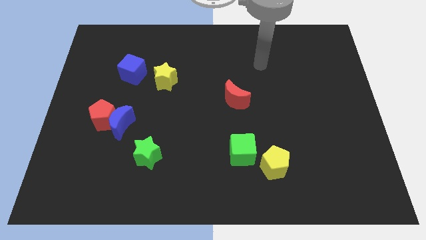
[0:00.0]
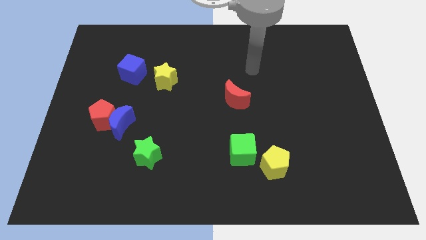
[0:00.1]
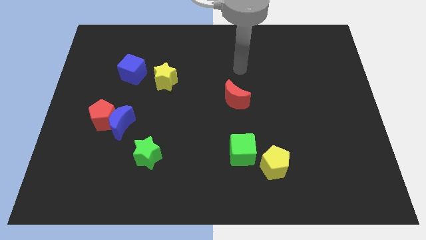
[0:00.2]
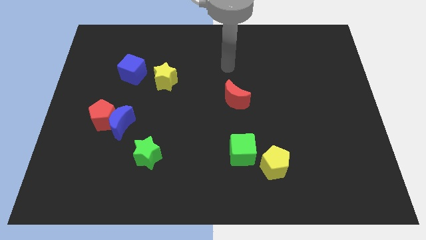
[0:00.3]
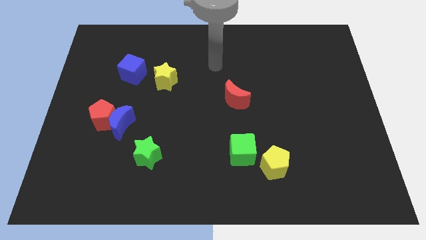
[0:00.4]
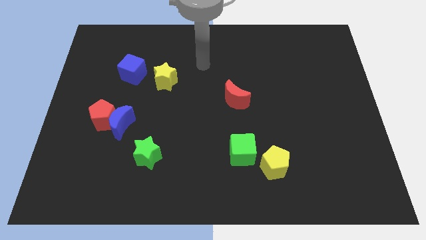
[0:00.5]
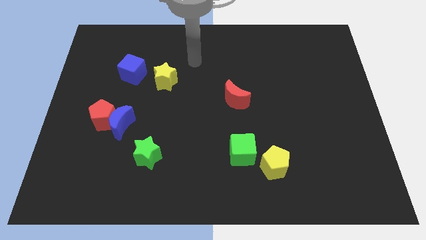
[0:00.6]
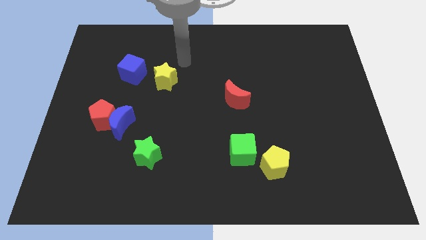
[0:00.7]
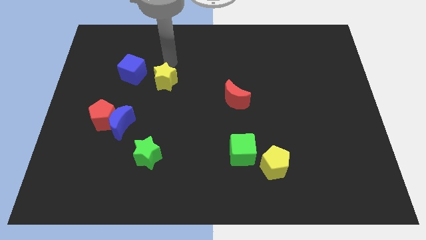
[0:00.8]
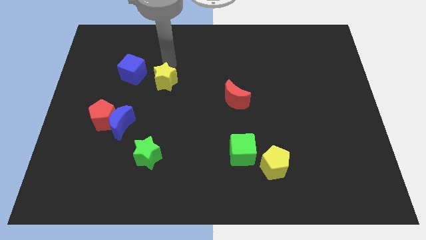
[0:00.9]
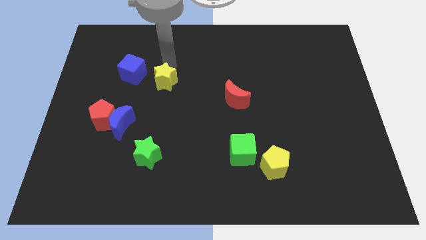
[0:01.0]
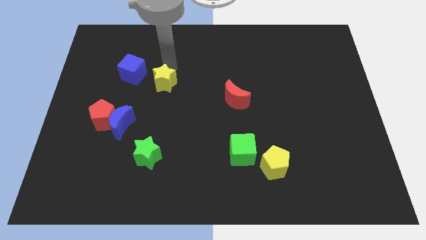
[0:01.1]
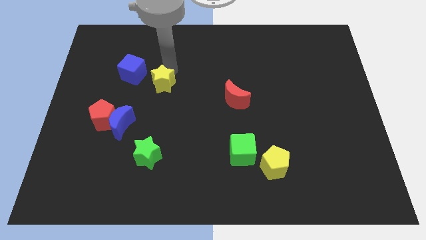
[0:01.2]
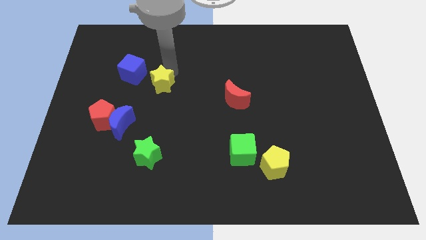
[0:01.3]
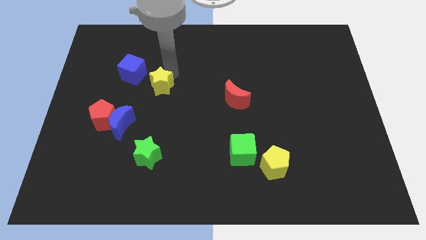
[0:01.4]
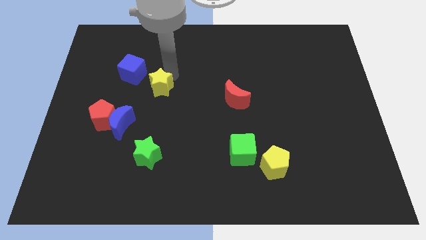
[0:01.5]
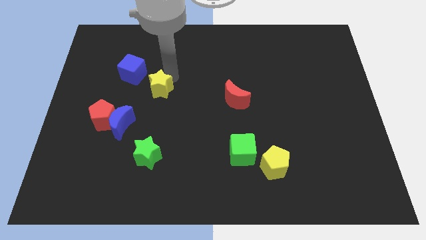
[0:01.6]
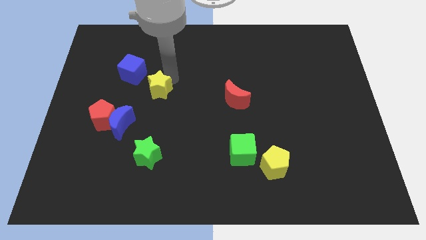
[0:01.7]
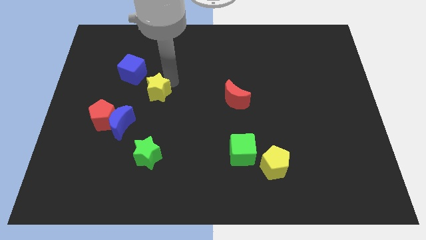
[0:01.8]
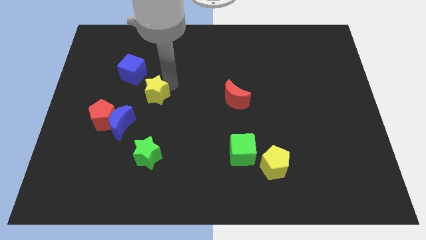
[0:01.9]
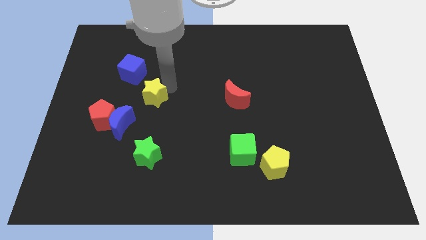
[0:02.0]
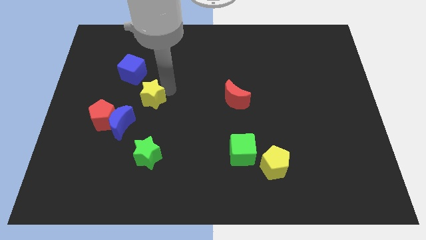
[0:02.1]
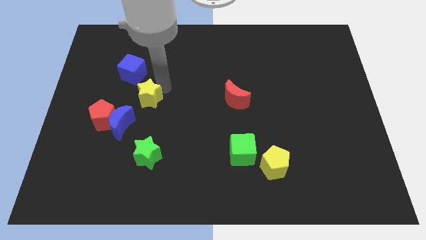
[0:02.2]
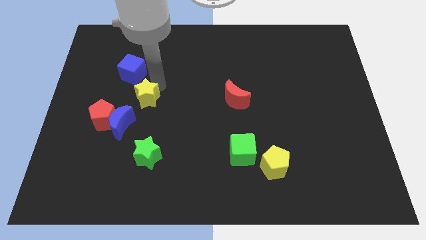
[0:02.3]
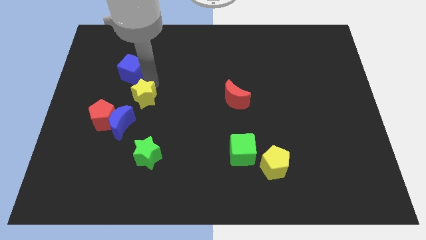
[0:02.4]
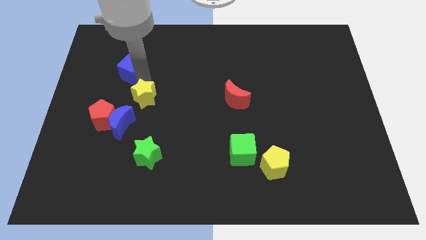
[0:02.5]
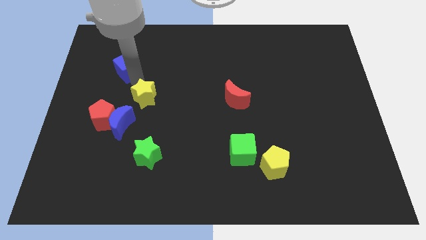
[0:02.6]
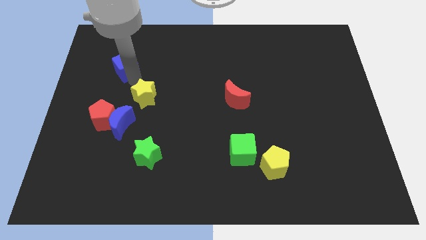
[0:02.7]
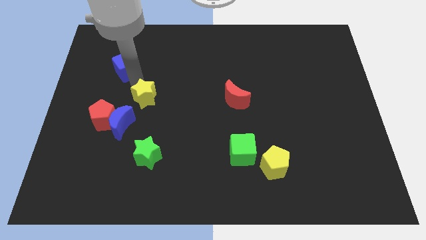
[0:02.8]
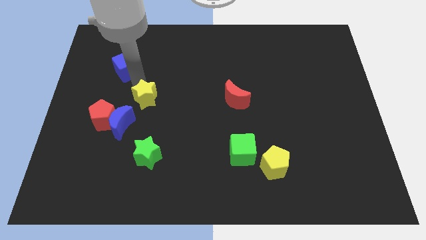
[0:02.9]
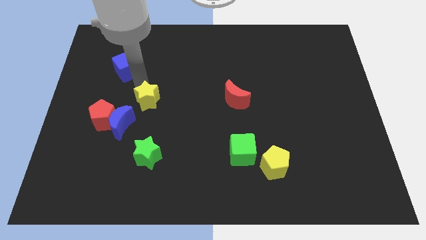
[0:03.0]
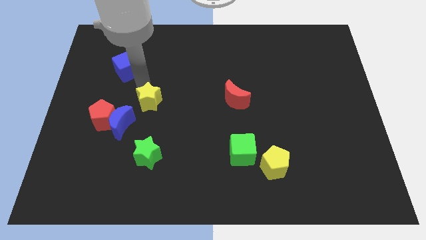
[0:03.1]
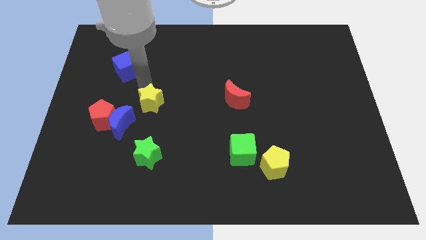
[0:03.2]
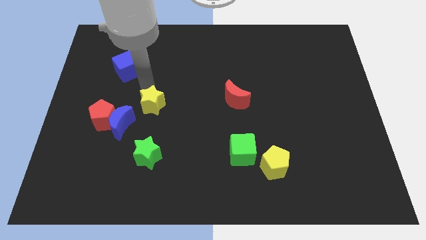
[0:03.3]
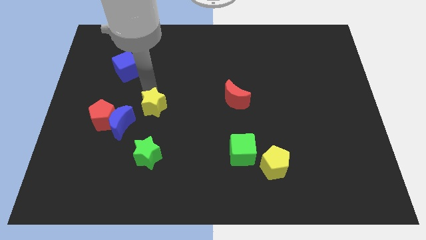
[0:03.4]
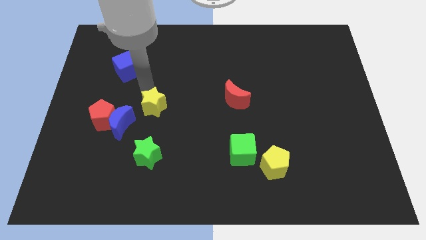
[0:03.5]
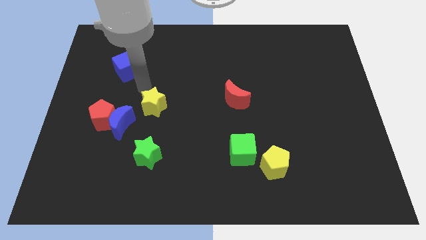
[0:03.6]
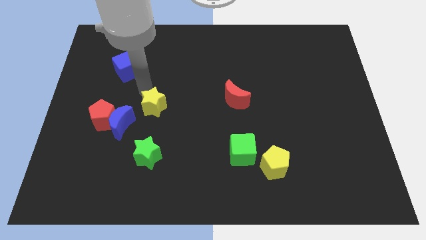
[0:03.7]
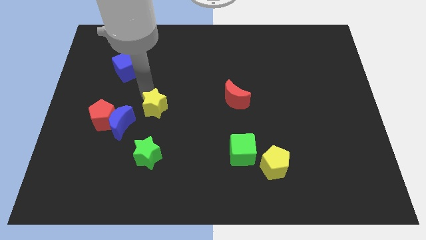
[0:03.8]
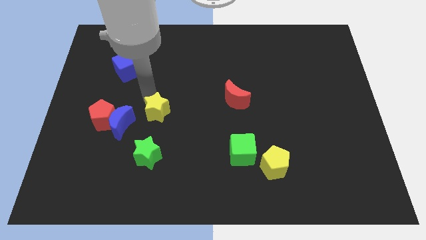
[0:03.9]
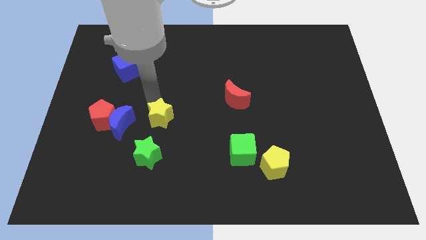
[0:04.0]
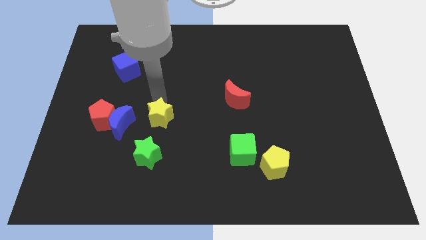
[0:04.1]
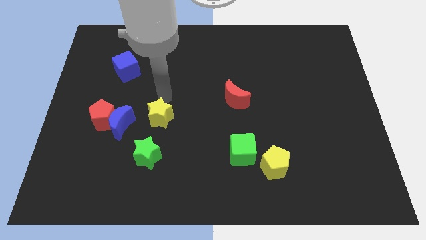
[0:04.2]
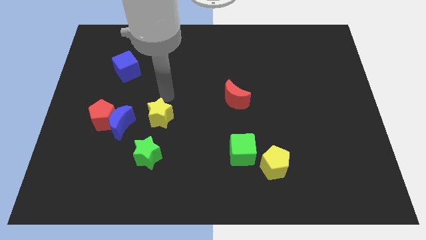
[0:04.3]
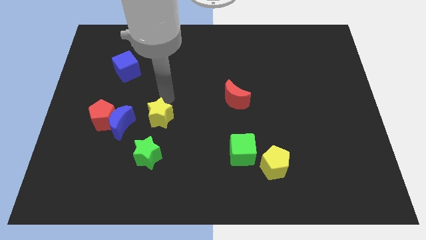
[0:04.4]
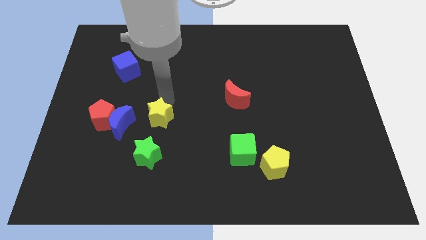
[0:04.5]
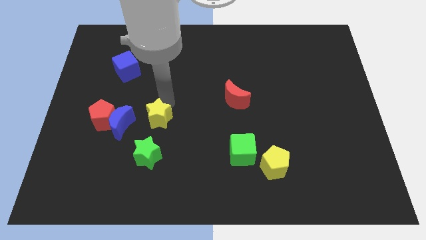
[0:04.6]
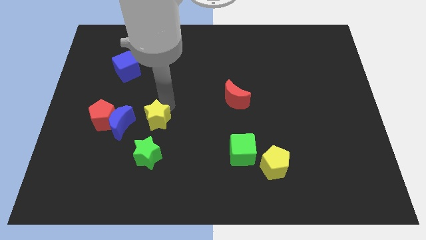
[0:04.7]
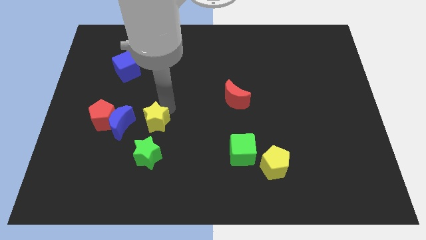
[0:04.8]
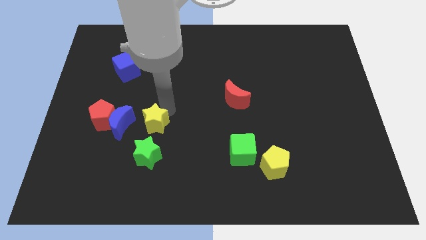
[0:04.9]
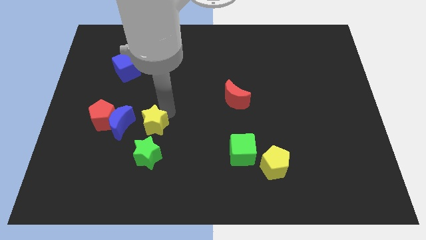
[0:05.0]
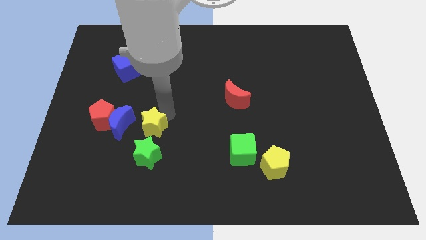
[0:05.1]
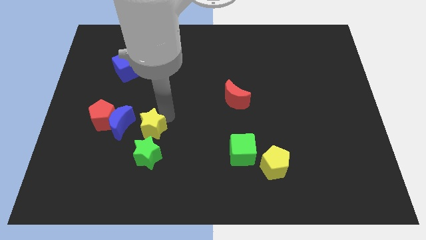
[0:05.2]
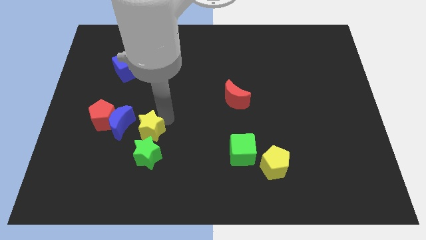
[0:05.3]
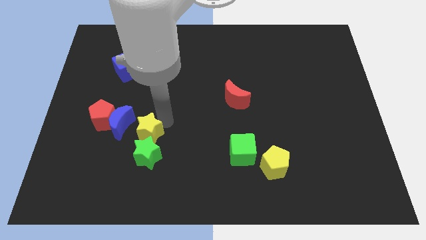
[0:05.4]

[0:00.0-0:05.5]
slide the yellow star close to the green star

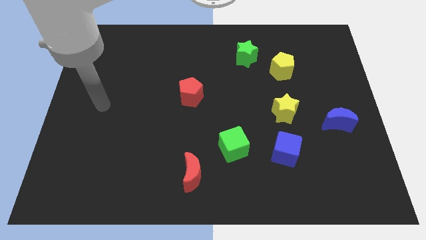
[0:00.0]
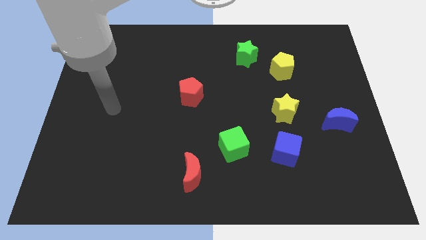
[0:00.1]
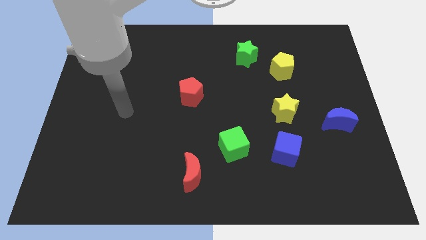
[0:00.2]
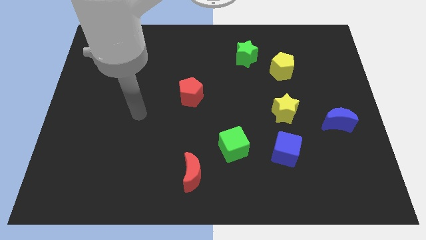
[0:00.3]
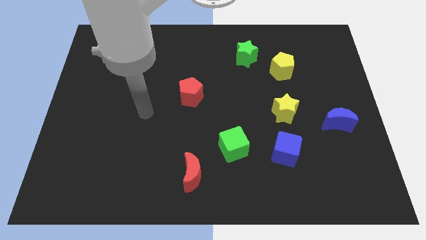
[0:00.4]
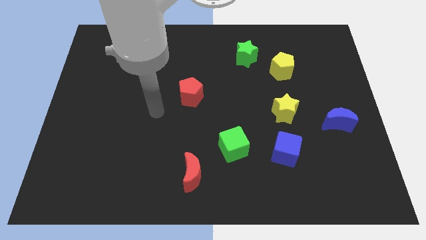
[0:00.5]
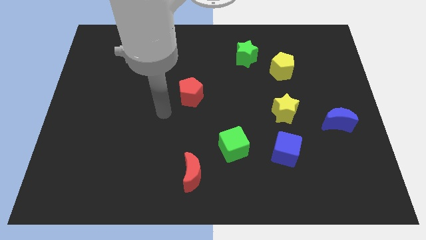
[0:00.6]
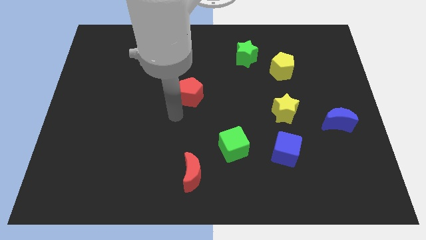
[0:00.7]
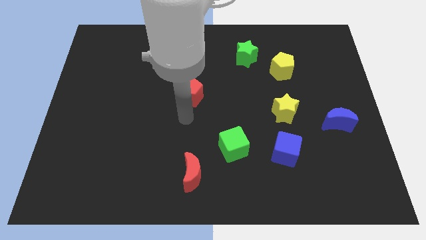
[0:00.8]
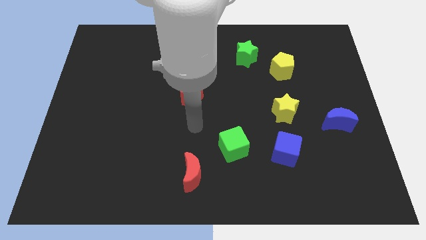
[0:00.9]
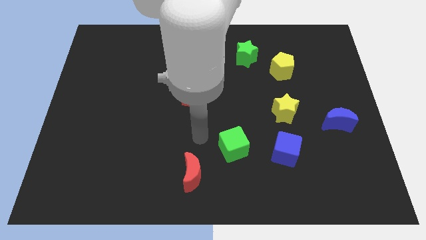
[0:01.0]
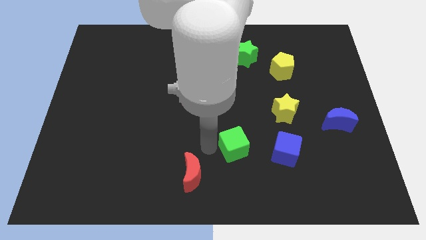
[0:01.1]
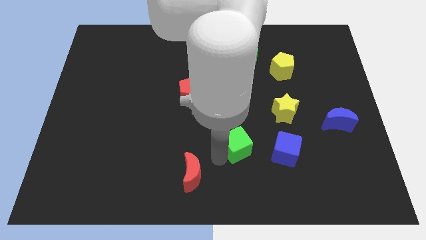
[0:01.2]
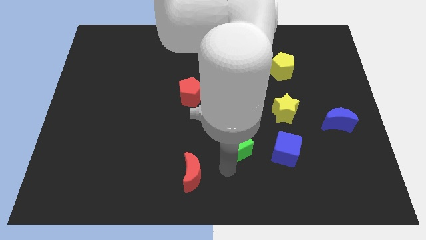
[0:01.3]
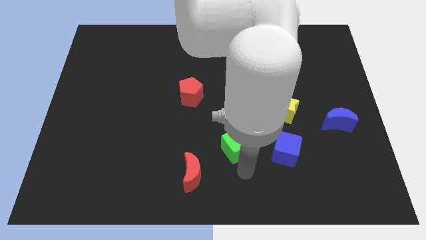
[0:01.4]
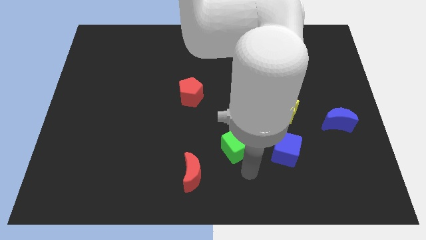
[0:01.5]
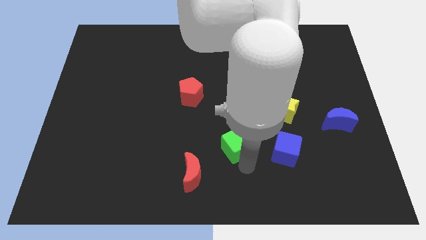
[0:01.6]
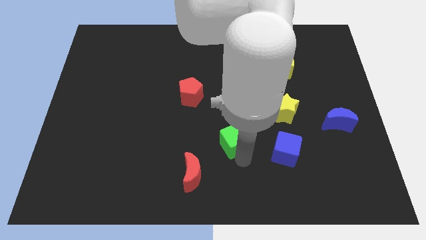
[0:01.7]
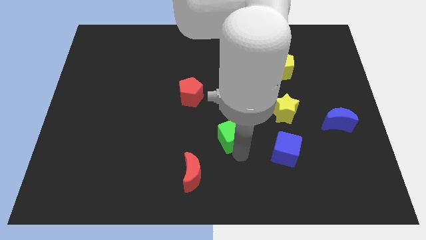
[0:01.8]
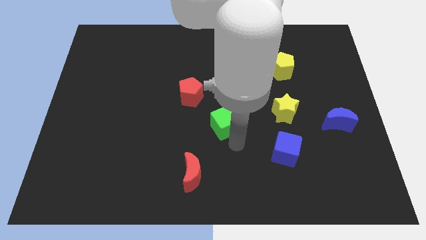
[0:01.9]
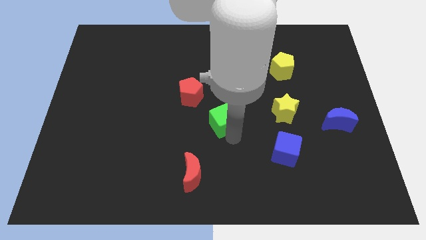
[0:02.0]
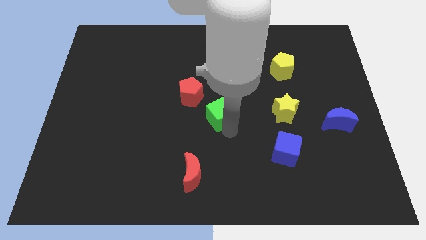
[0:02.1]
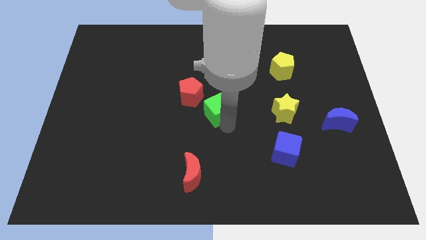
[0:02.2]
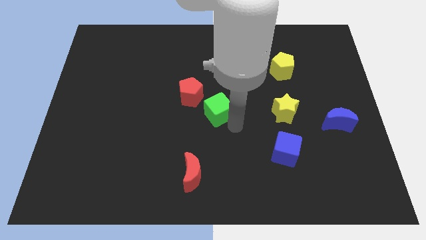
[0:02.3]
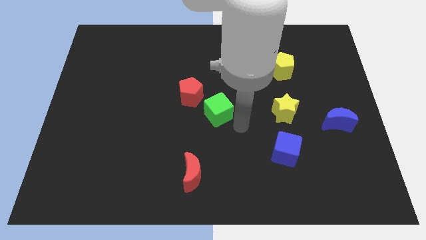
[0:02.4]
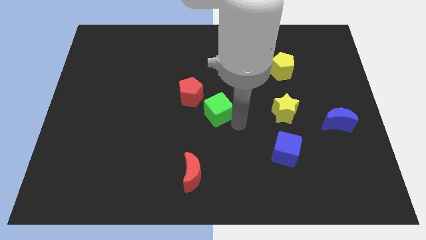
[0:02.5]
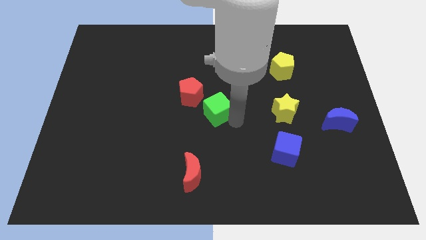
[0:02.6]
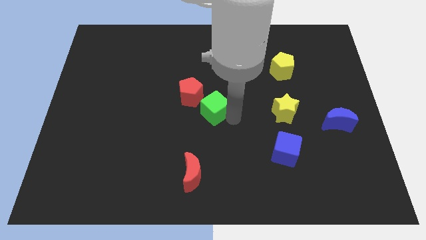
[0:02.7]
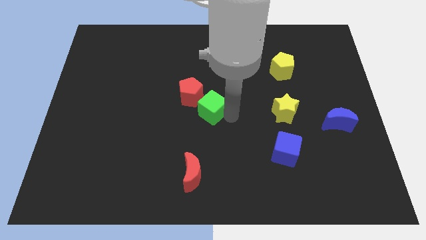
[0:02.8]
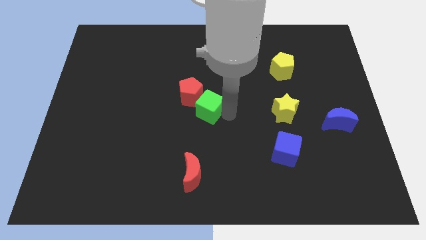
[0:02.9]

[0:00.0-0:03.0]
push the green cube next to the red pentagon
